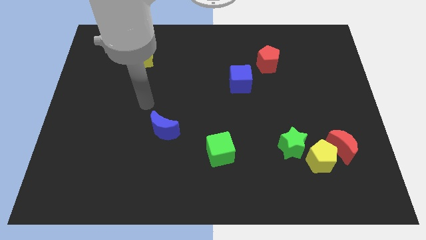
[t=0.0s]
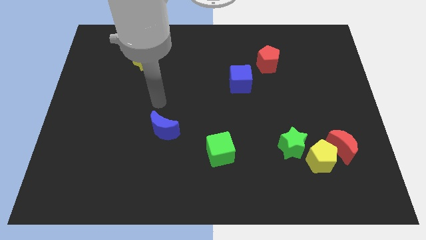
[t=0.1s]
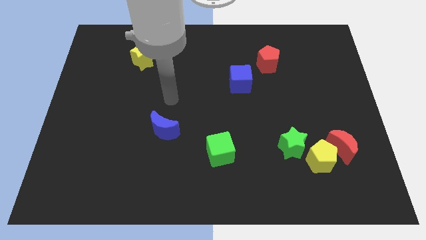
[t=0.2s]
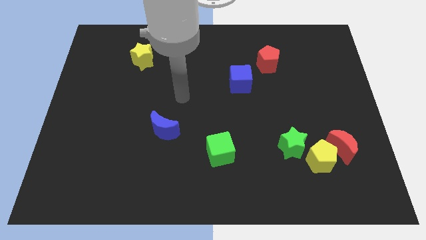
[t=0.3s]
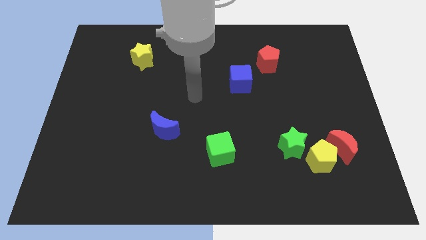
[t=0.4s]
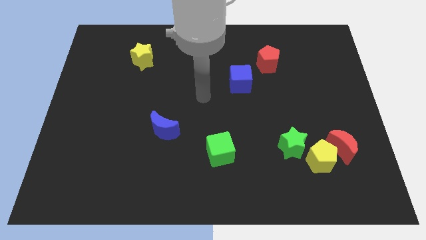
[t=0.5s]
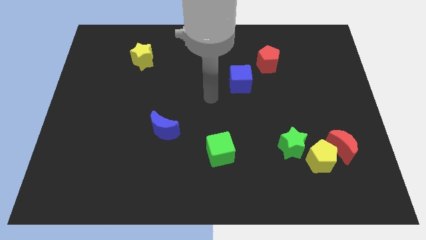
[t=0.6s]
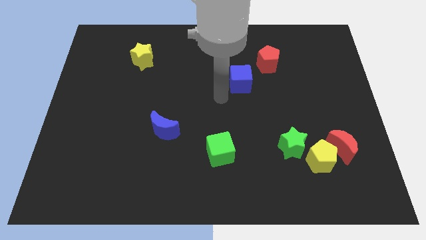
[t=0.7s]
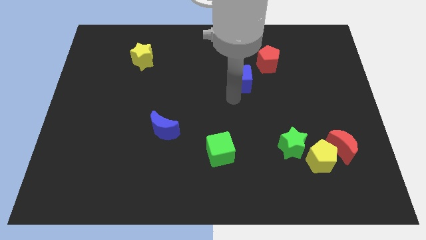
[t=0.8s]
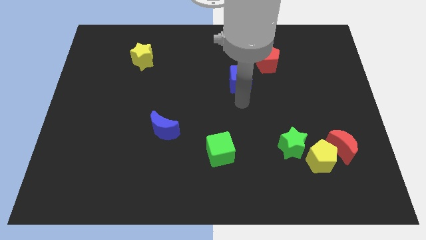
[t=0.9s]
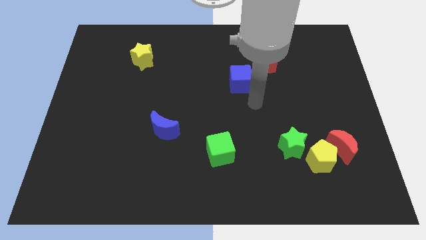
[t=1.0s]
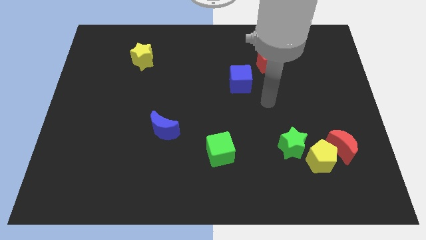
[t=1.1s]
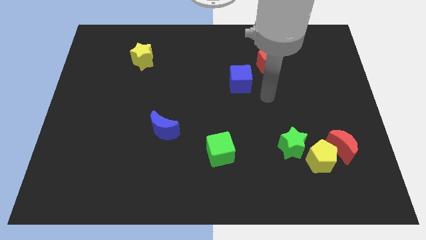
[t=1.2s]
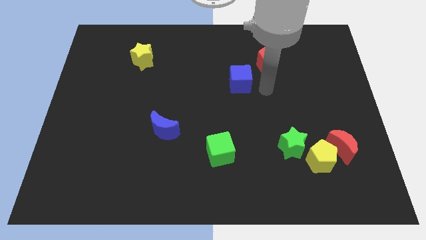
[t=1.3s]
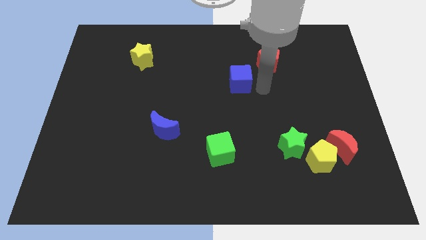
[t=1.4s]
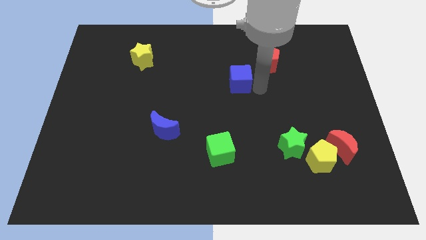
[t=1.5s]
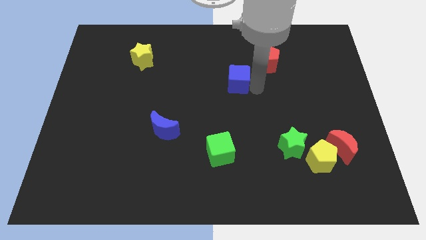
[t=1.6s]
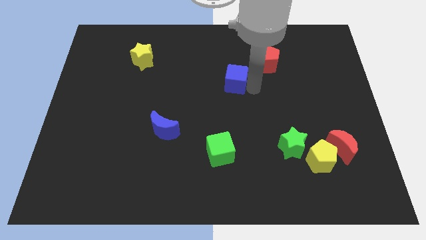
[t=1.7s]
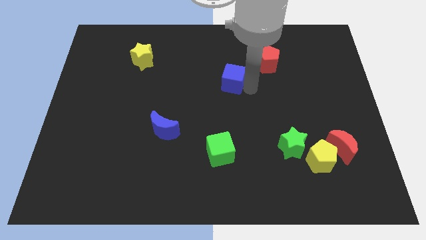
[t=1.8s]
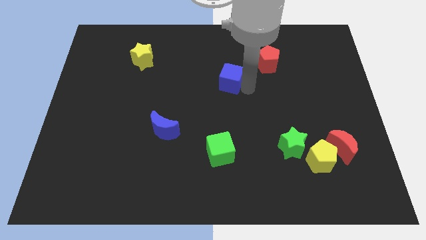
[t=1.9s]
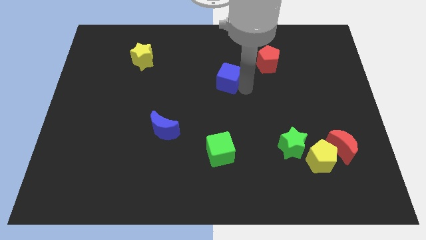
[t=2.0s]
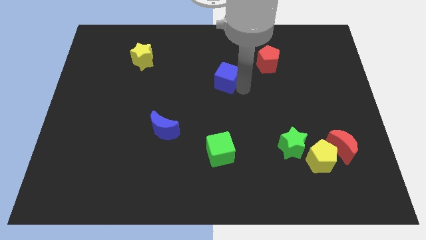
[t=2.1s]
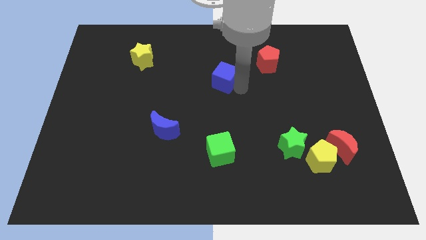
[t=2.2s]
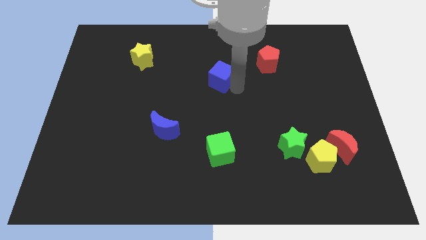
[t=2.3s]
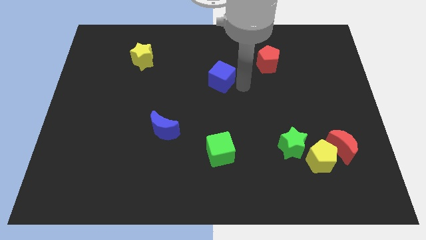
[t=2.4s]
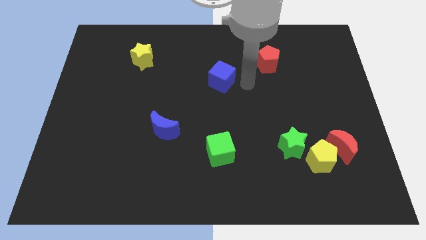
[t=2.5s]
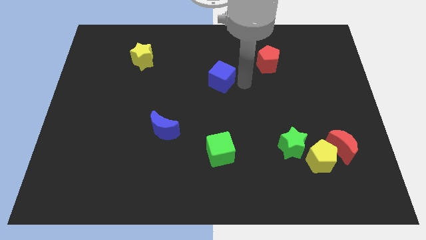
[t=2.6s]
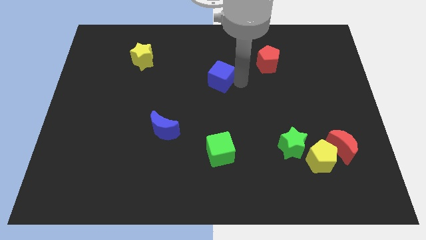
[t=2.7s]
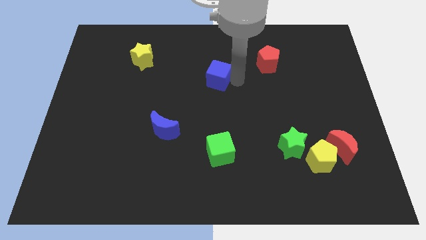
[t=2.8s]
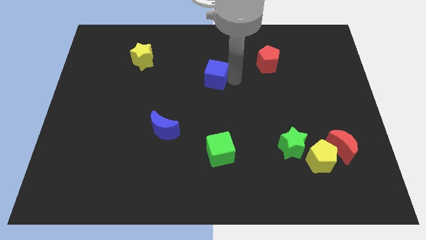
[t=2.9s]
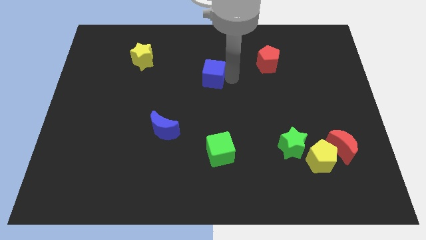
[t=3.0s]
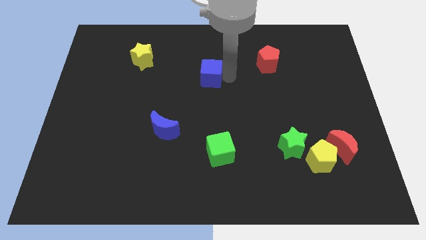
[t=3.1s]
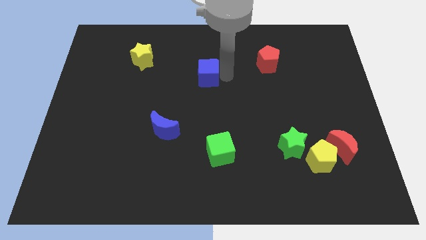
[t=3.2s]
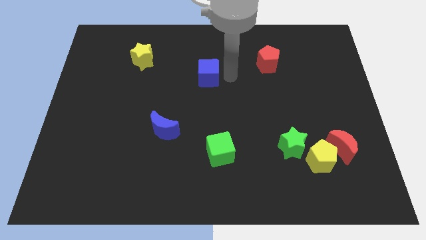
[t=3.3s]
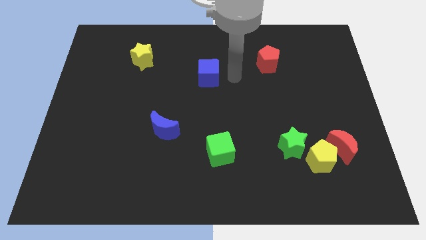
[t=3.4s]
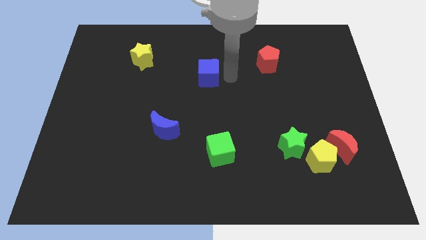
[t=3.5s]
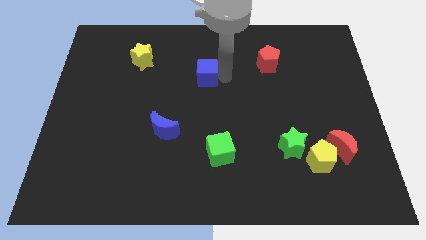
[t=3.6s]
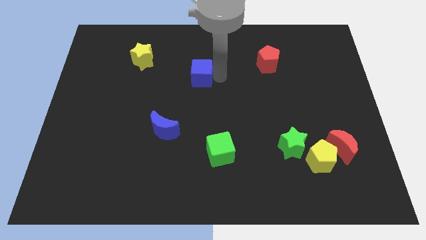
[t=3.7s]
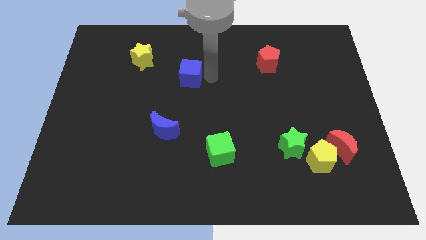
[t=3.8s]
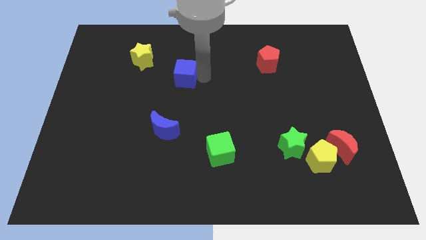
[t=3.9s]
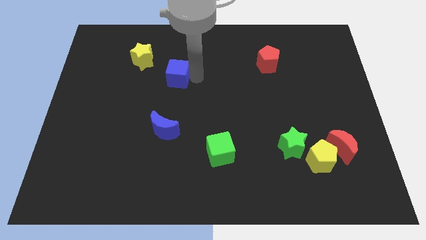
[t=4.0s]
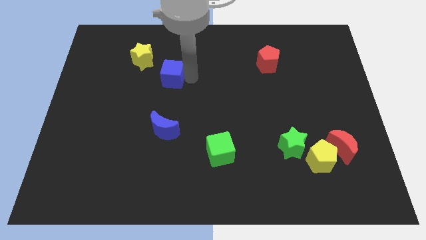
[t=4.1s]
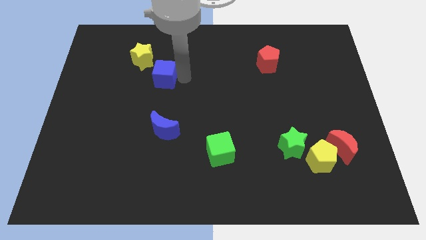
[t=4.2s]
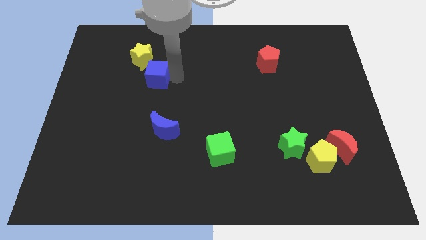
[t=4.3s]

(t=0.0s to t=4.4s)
slide the blue cube to the left

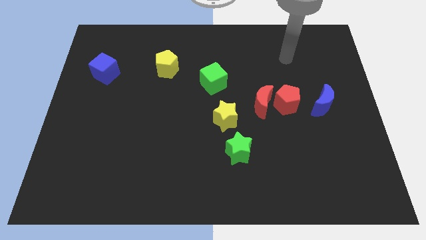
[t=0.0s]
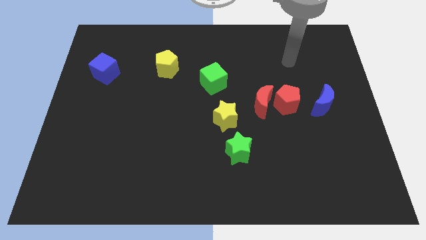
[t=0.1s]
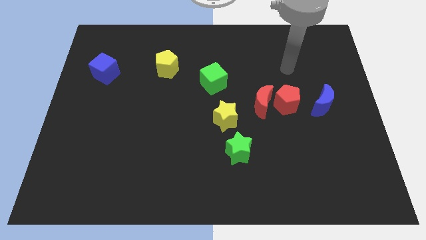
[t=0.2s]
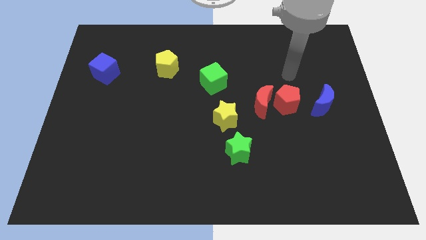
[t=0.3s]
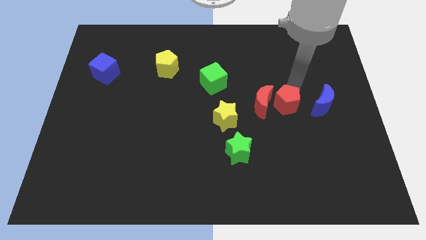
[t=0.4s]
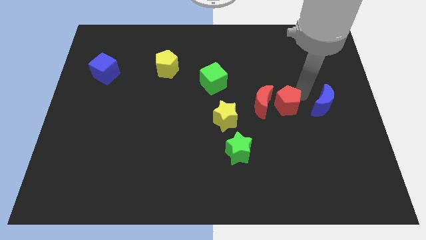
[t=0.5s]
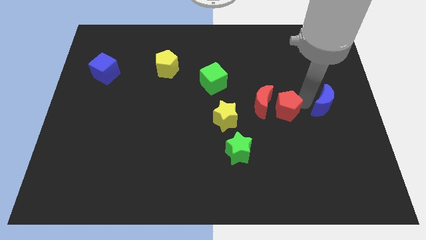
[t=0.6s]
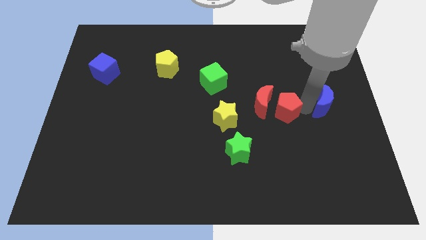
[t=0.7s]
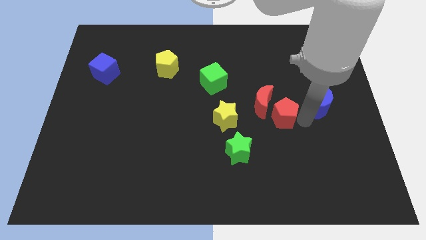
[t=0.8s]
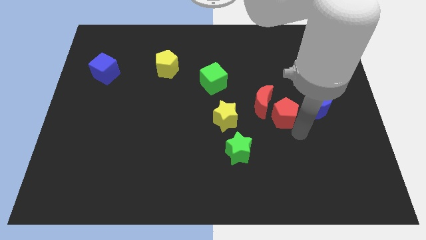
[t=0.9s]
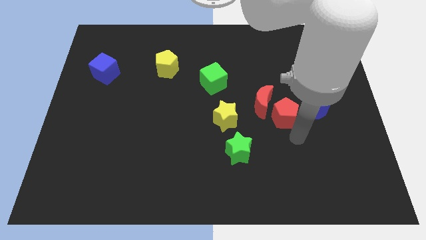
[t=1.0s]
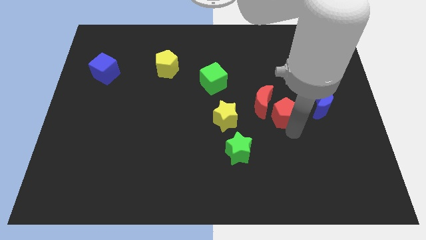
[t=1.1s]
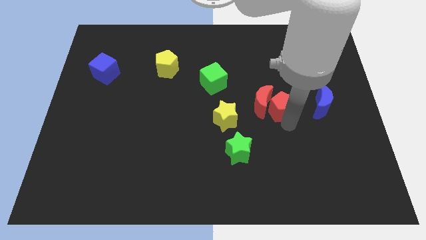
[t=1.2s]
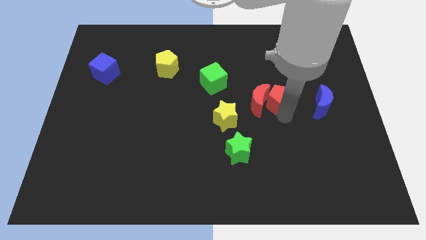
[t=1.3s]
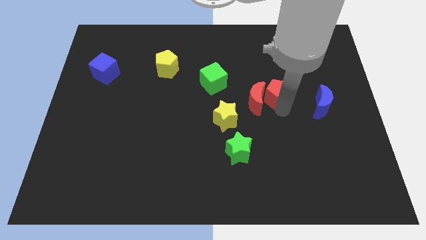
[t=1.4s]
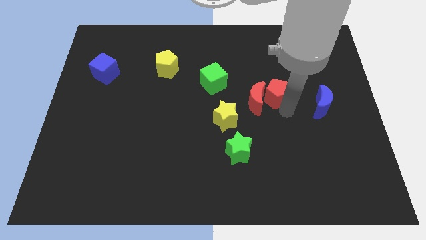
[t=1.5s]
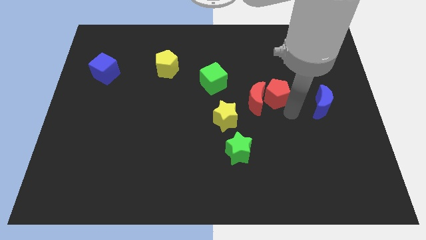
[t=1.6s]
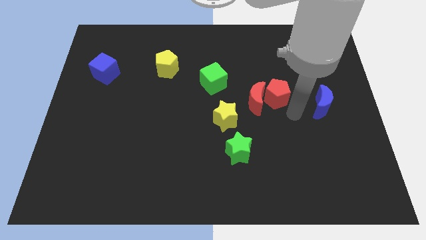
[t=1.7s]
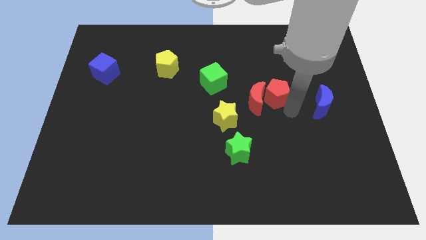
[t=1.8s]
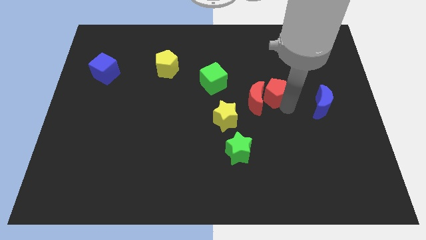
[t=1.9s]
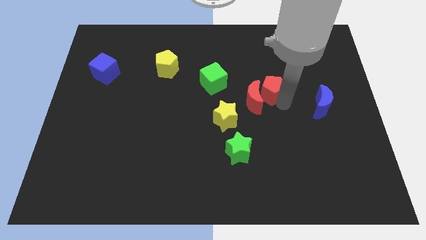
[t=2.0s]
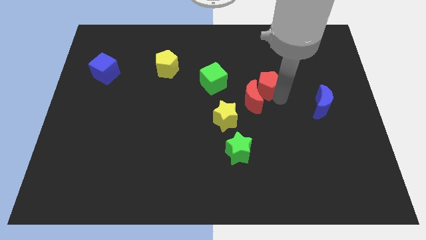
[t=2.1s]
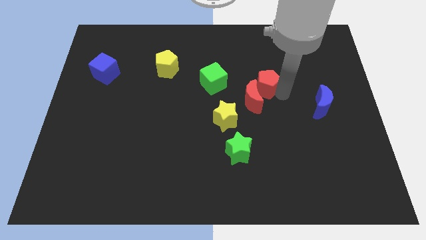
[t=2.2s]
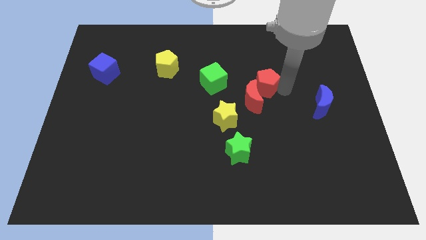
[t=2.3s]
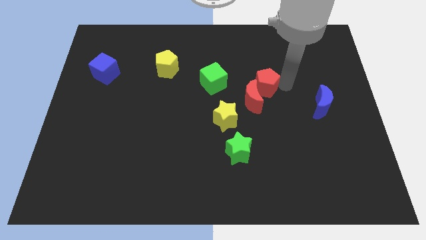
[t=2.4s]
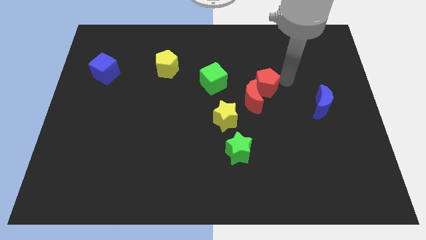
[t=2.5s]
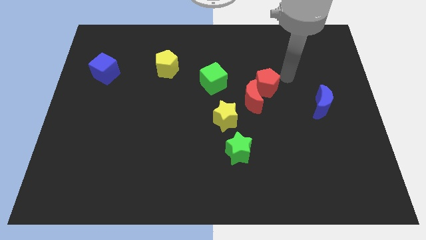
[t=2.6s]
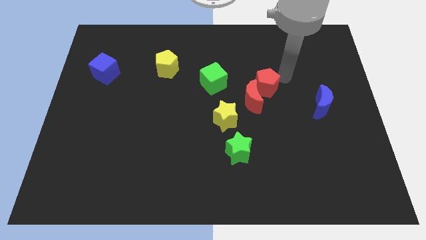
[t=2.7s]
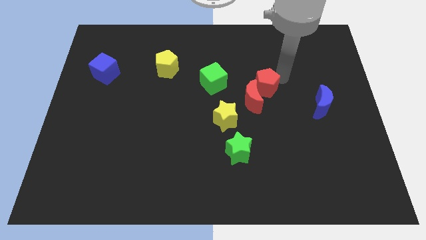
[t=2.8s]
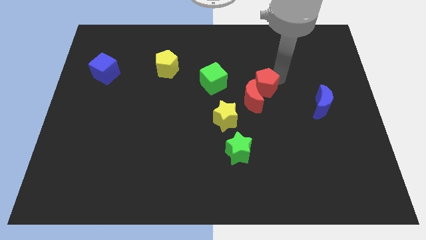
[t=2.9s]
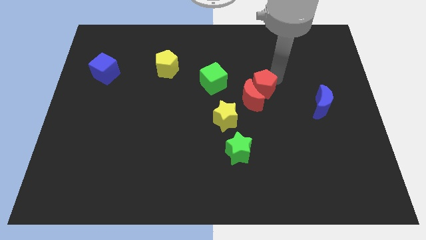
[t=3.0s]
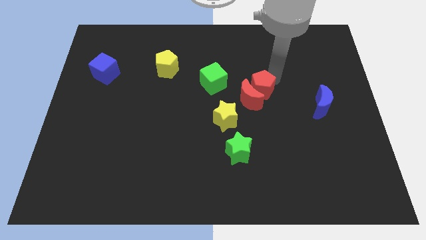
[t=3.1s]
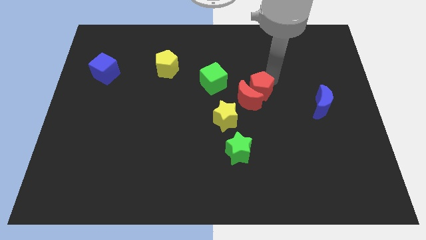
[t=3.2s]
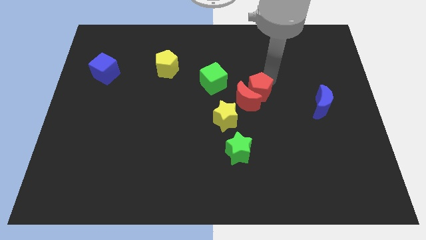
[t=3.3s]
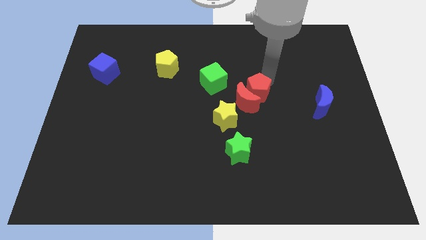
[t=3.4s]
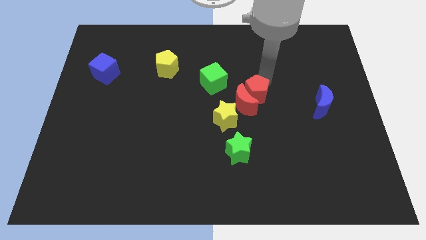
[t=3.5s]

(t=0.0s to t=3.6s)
slide the red pentagon left a bit

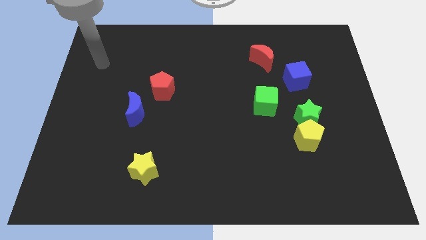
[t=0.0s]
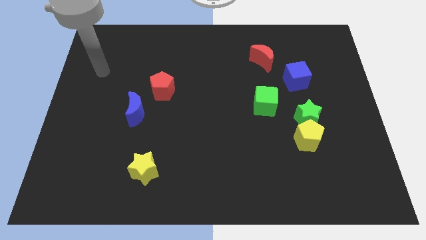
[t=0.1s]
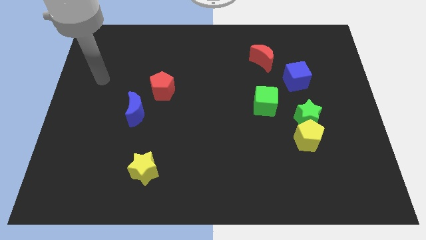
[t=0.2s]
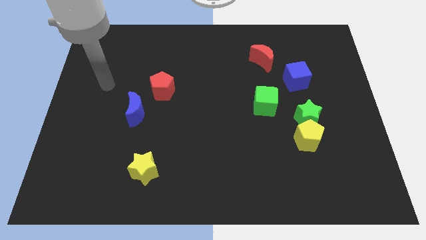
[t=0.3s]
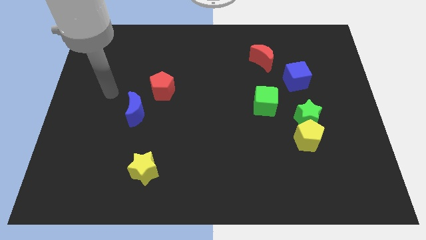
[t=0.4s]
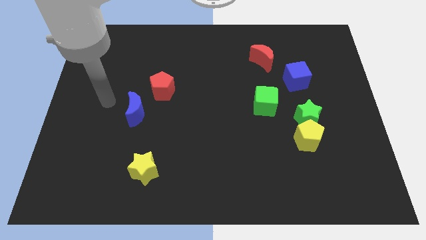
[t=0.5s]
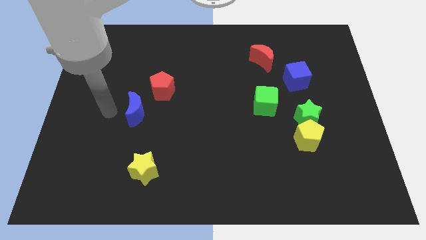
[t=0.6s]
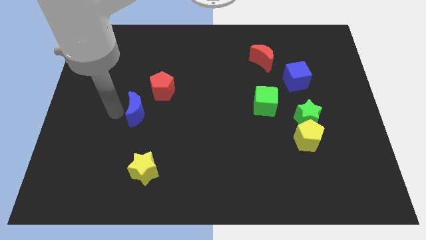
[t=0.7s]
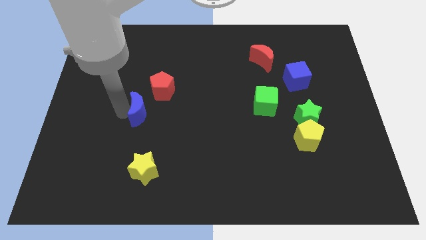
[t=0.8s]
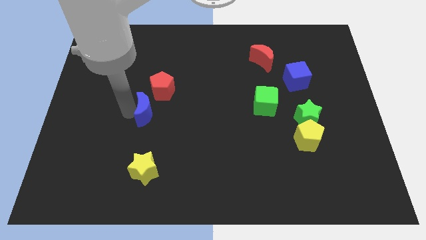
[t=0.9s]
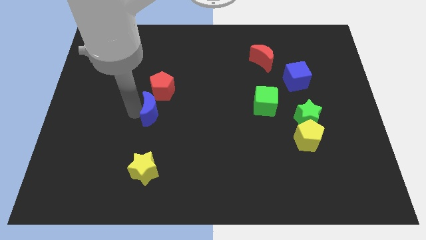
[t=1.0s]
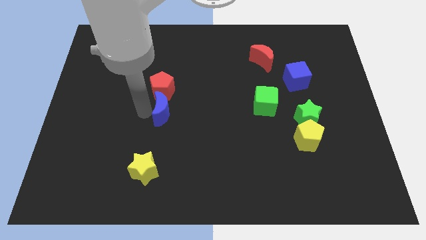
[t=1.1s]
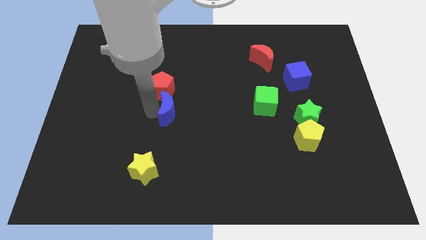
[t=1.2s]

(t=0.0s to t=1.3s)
slightly move the blue moon to the right
